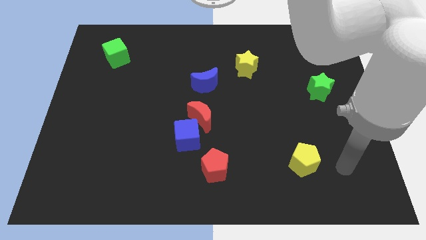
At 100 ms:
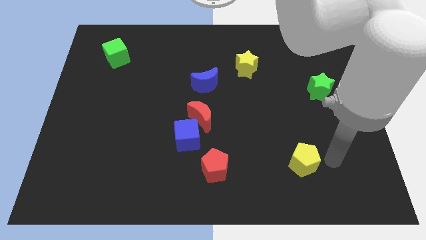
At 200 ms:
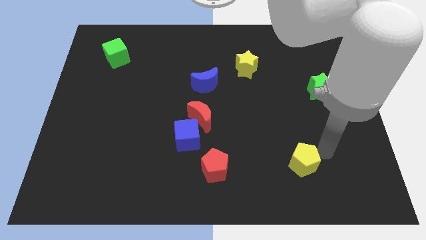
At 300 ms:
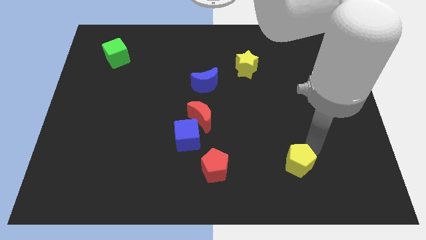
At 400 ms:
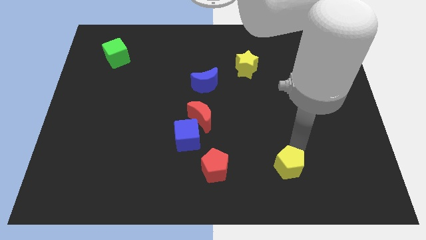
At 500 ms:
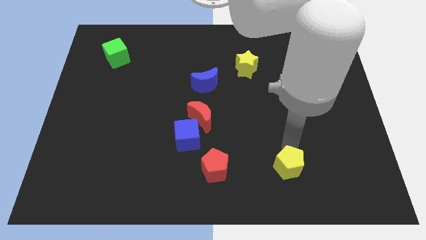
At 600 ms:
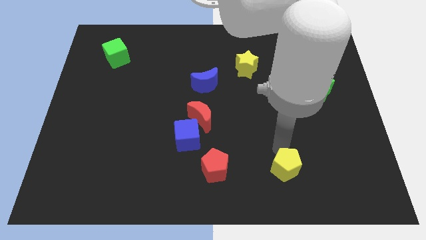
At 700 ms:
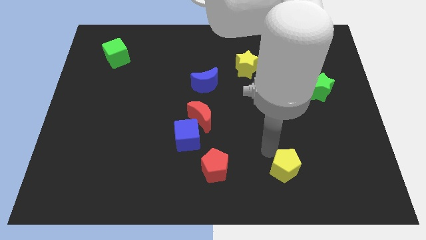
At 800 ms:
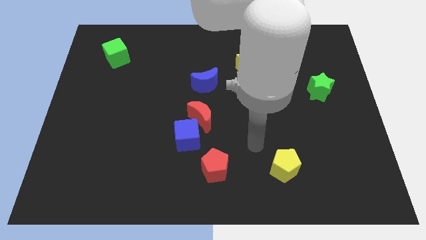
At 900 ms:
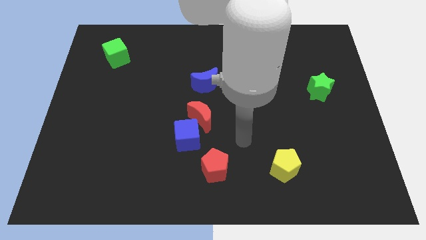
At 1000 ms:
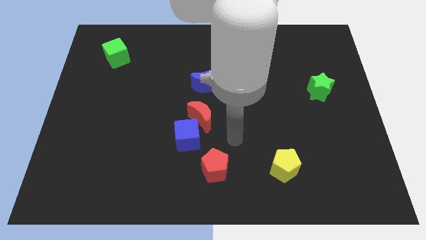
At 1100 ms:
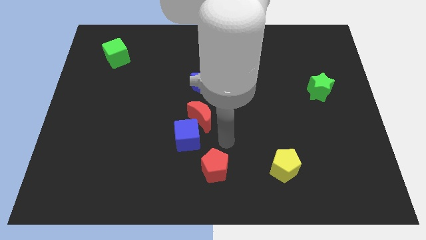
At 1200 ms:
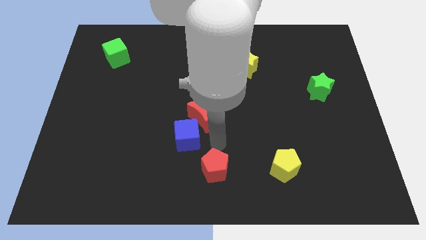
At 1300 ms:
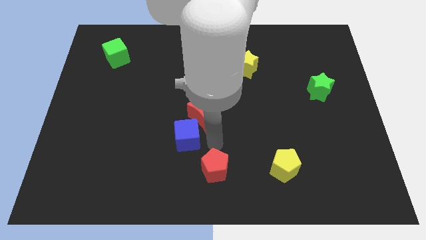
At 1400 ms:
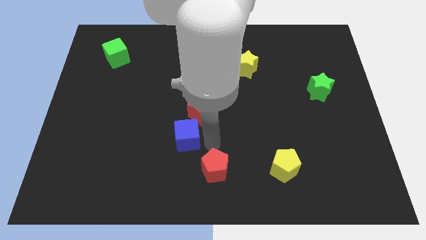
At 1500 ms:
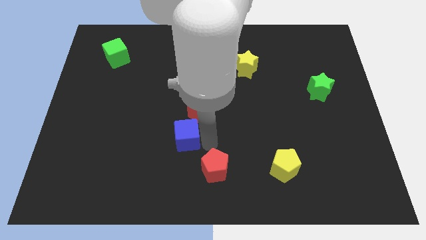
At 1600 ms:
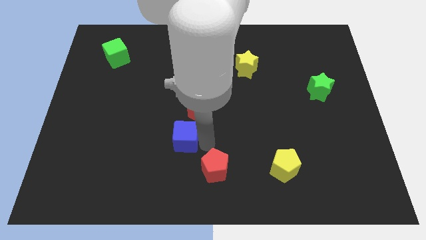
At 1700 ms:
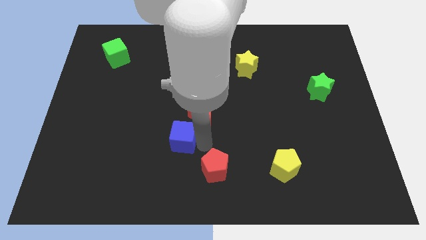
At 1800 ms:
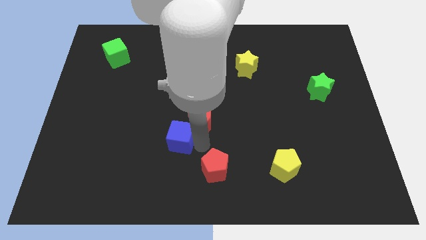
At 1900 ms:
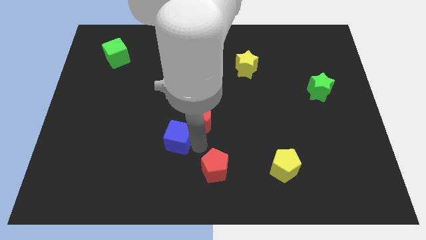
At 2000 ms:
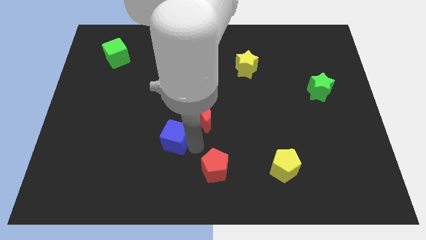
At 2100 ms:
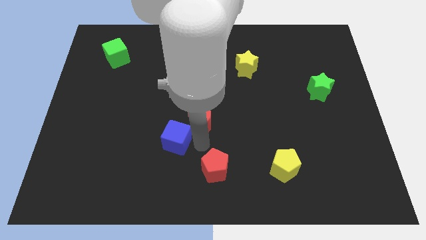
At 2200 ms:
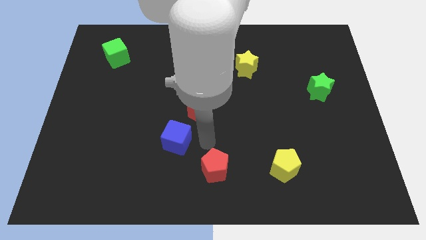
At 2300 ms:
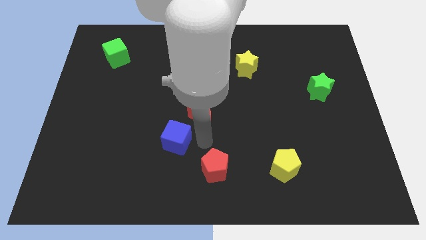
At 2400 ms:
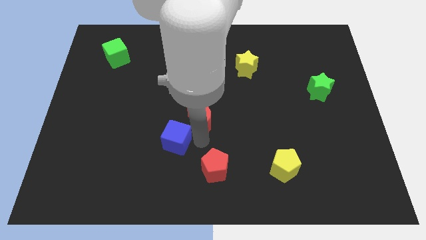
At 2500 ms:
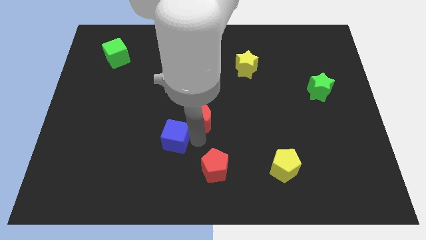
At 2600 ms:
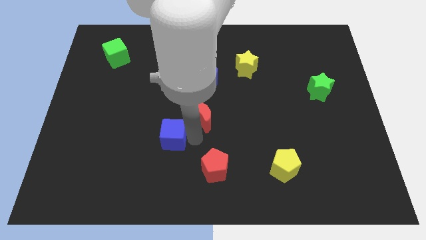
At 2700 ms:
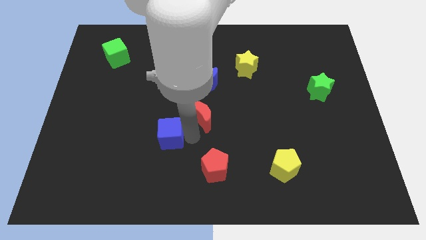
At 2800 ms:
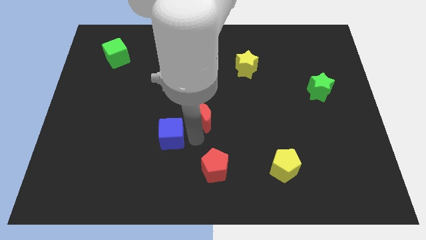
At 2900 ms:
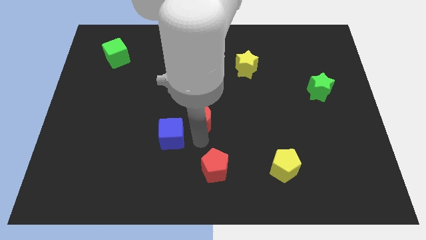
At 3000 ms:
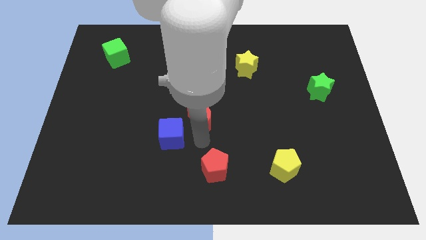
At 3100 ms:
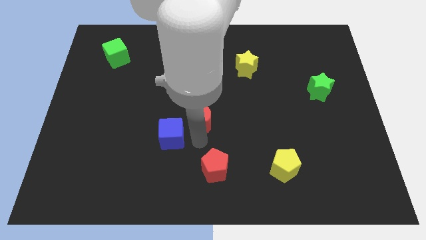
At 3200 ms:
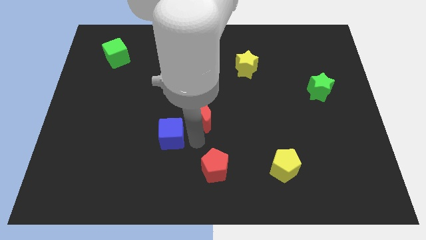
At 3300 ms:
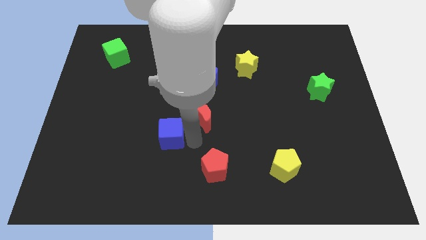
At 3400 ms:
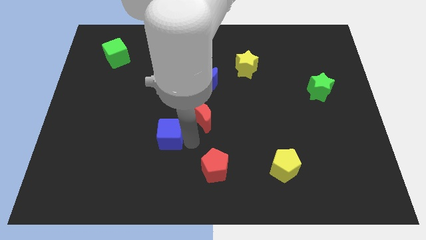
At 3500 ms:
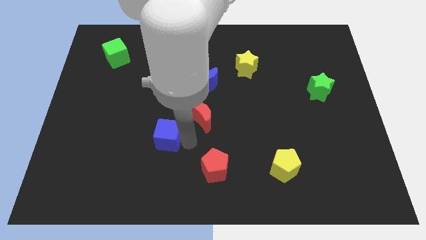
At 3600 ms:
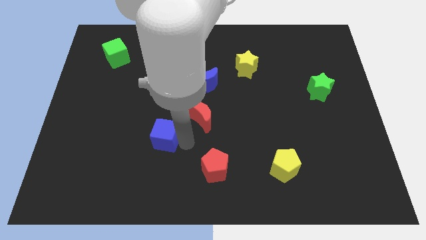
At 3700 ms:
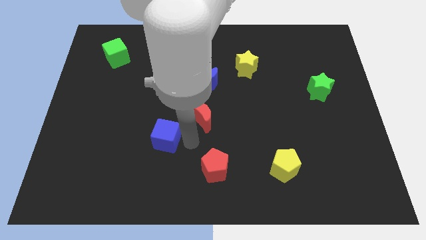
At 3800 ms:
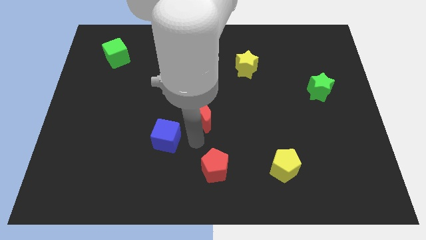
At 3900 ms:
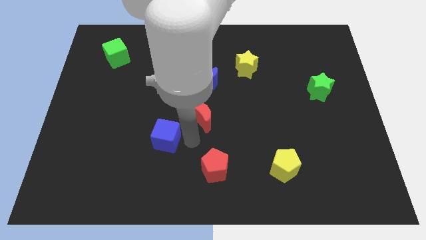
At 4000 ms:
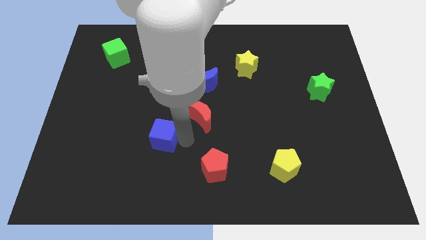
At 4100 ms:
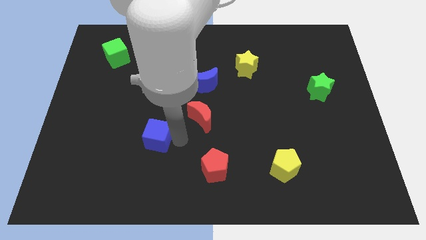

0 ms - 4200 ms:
pull the blue cube apart from the red moon and red pentagon

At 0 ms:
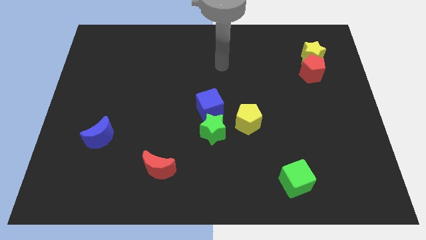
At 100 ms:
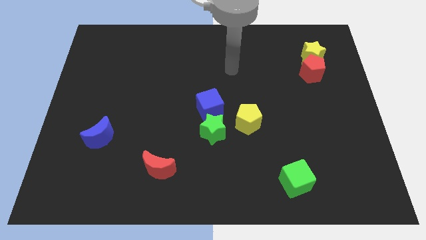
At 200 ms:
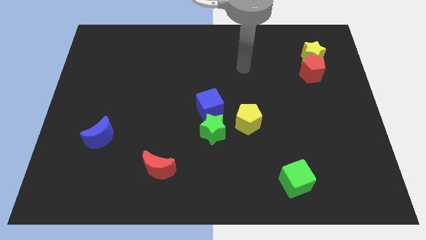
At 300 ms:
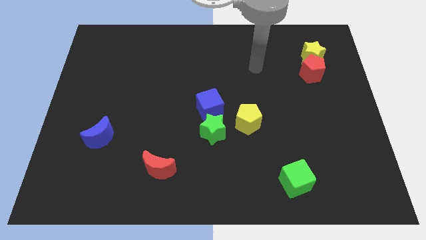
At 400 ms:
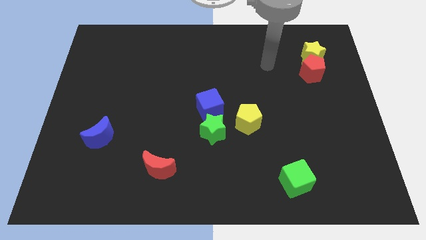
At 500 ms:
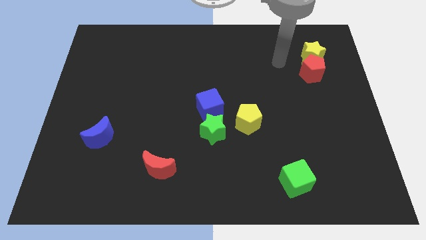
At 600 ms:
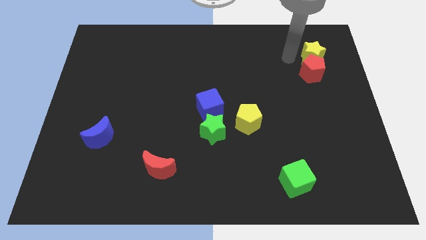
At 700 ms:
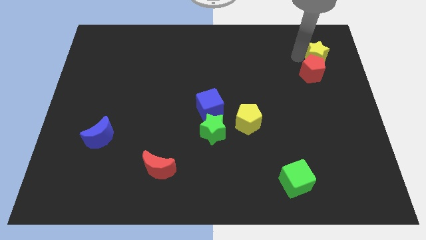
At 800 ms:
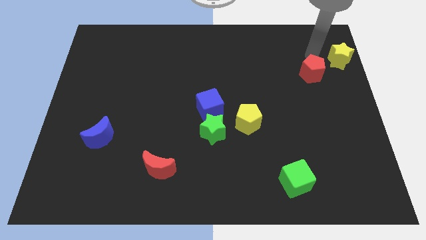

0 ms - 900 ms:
move the red pentagon away from the yellow star

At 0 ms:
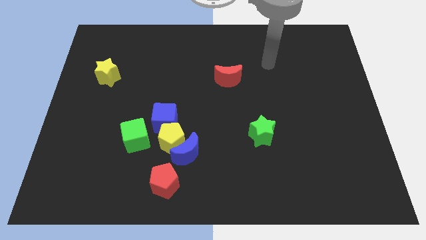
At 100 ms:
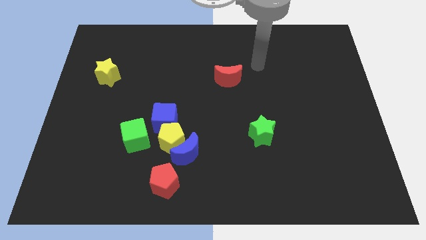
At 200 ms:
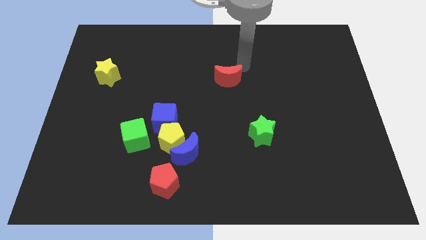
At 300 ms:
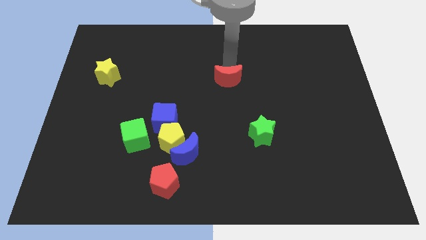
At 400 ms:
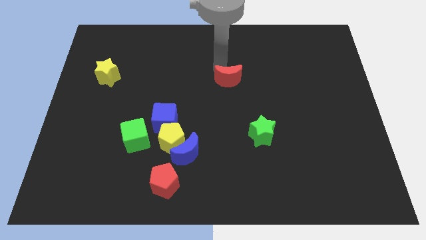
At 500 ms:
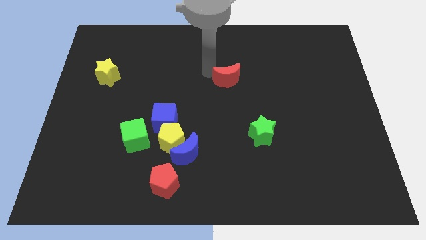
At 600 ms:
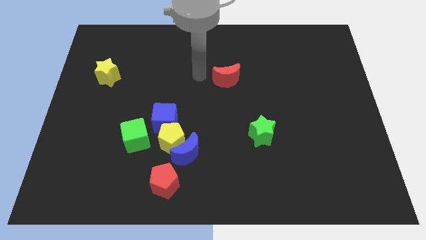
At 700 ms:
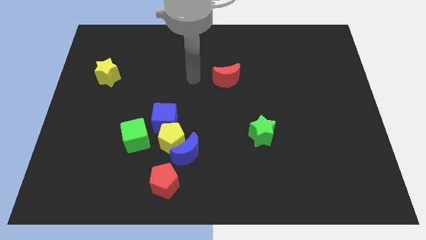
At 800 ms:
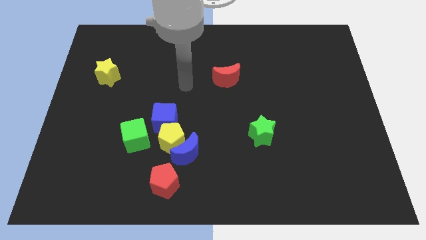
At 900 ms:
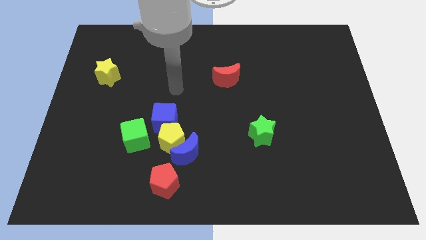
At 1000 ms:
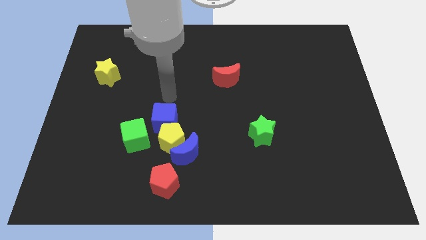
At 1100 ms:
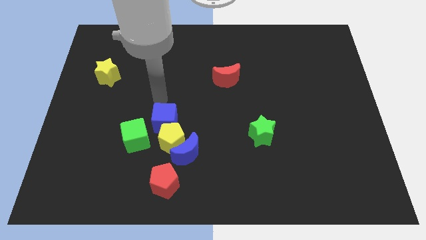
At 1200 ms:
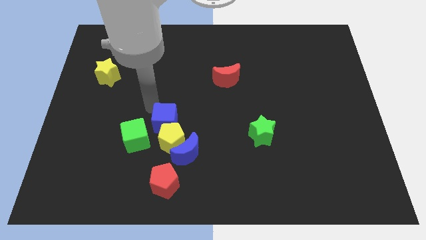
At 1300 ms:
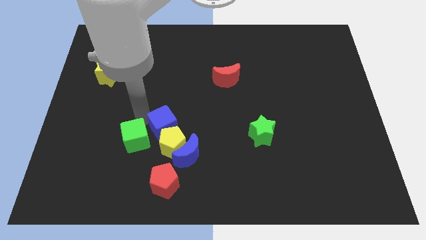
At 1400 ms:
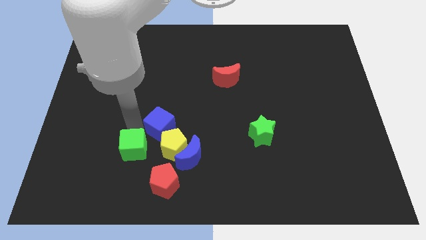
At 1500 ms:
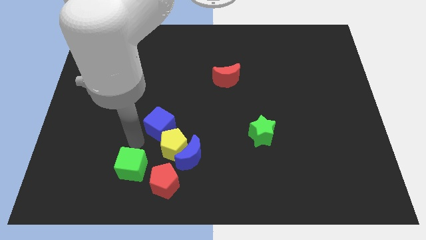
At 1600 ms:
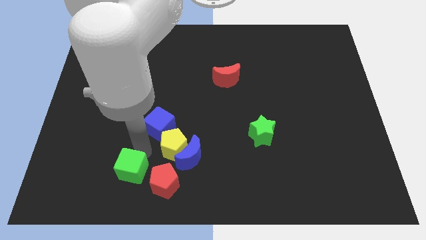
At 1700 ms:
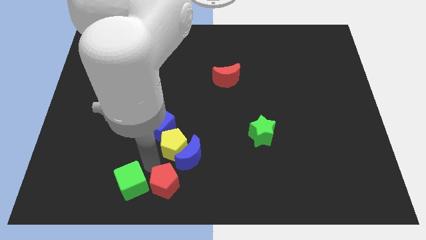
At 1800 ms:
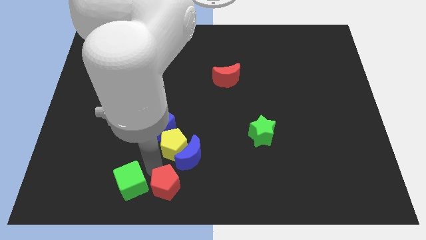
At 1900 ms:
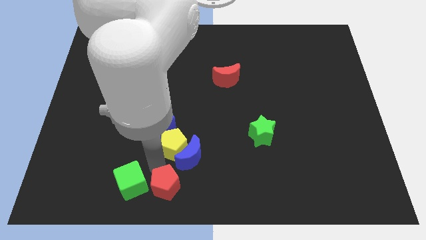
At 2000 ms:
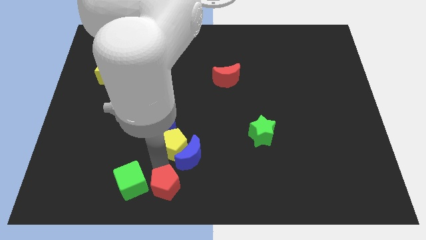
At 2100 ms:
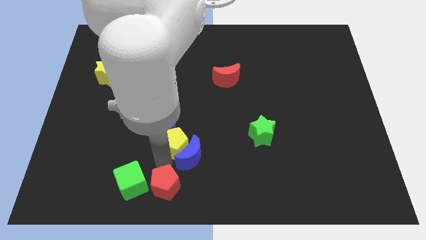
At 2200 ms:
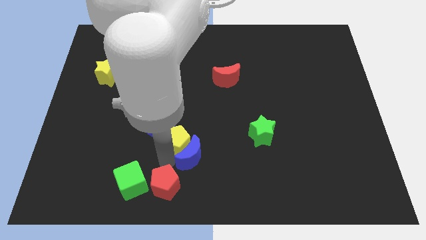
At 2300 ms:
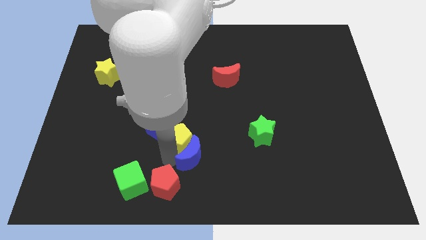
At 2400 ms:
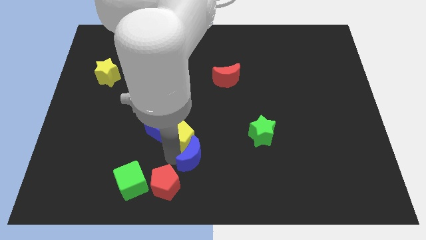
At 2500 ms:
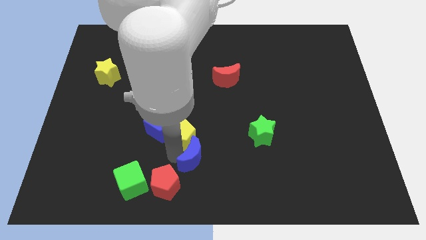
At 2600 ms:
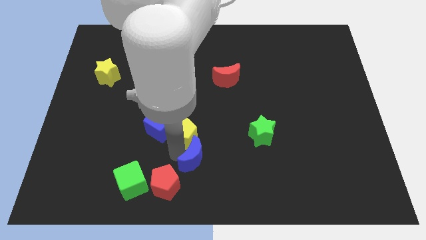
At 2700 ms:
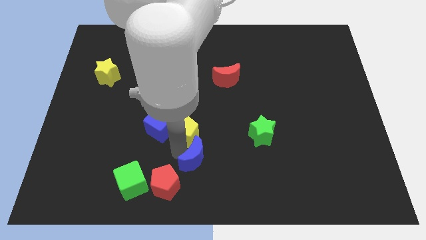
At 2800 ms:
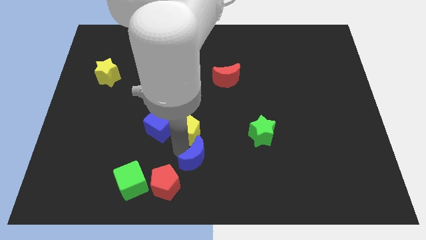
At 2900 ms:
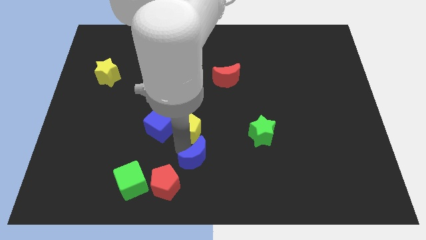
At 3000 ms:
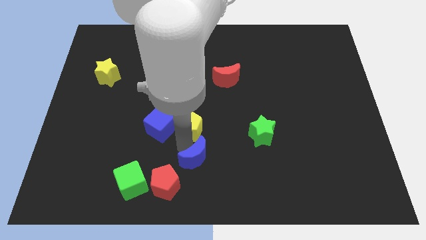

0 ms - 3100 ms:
separate the yellow pentagon from the group of blocks

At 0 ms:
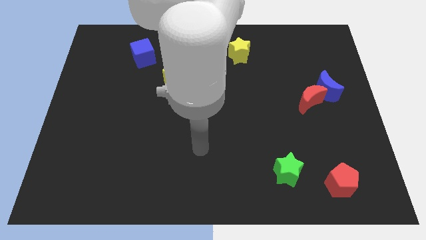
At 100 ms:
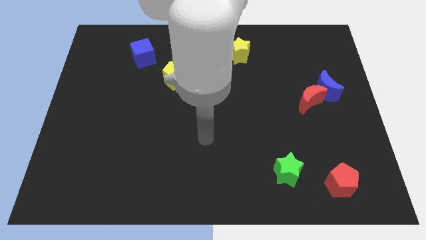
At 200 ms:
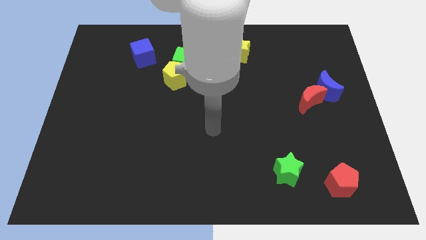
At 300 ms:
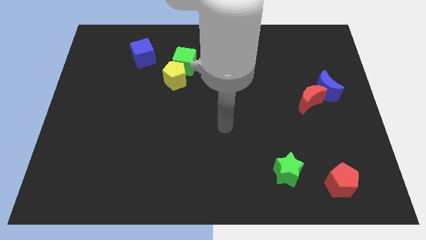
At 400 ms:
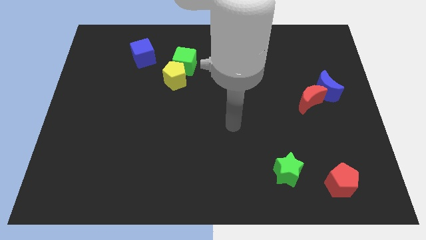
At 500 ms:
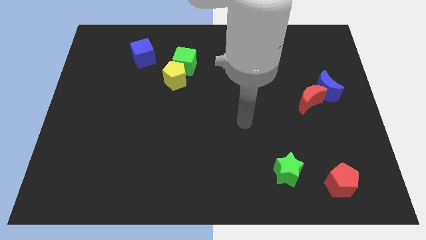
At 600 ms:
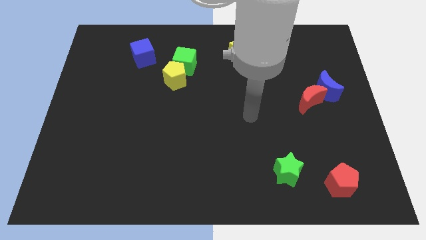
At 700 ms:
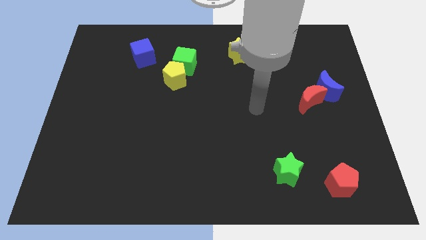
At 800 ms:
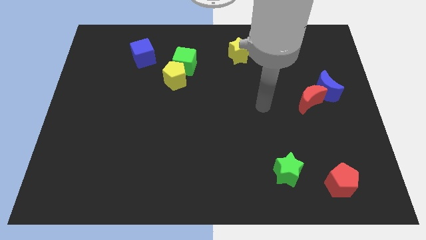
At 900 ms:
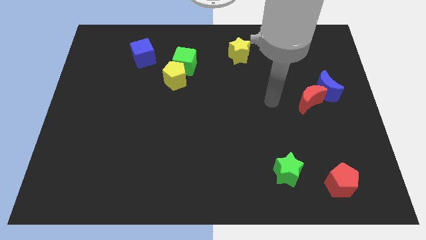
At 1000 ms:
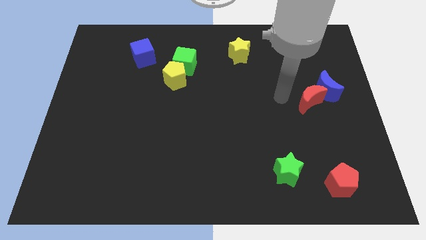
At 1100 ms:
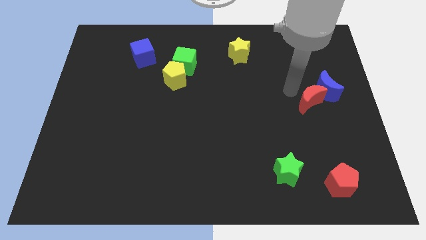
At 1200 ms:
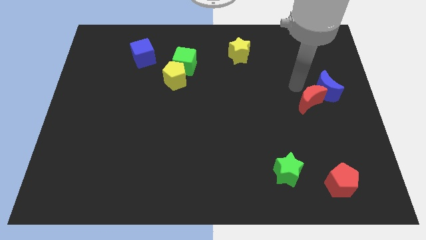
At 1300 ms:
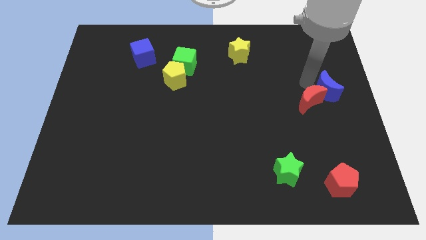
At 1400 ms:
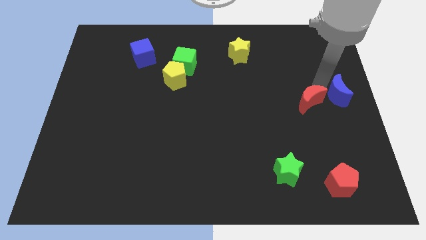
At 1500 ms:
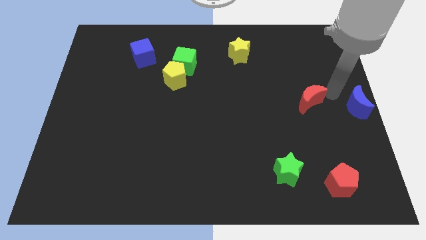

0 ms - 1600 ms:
move the red moon away from the blue moon